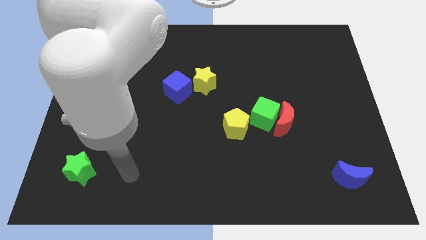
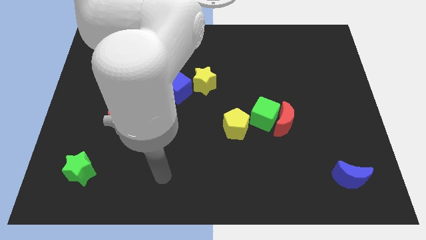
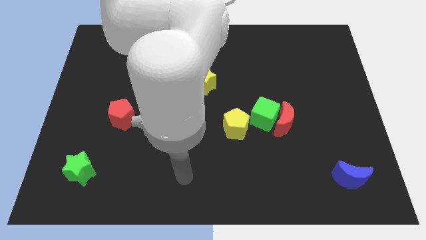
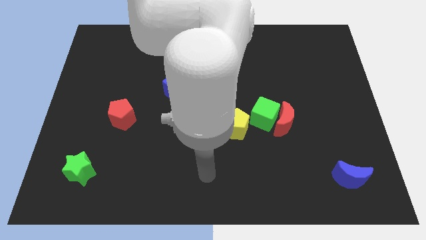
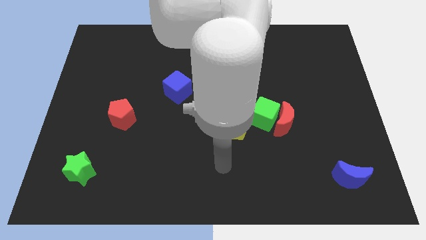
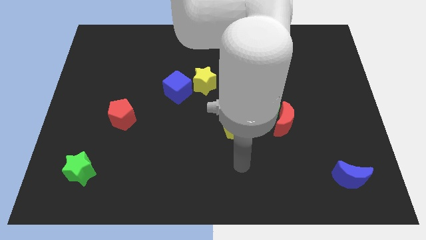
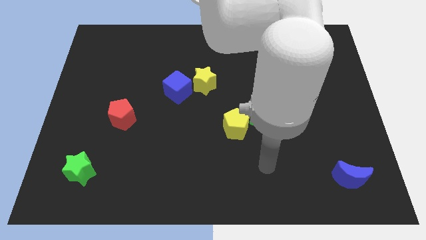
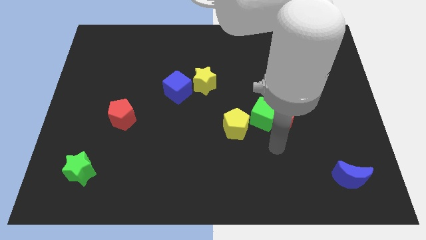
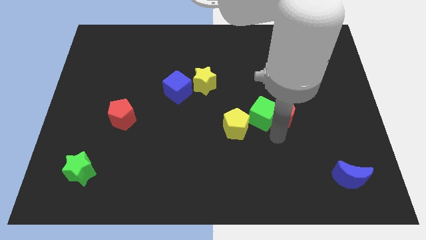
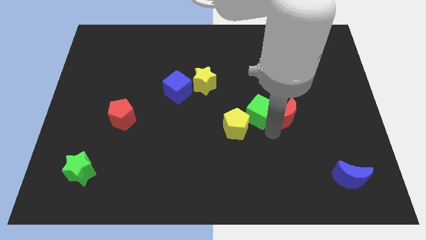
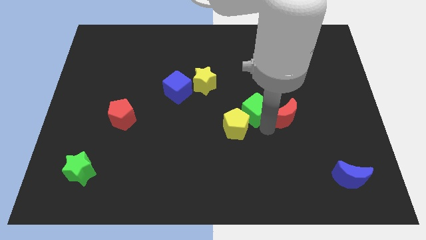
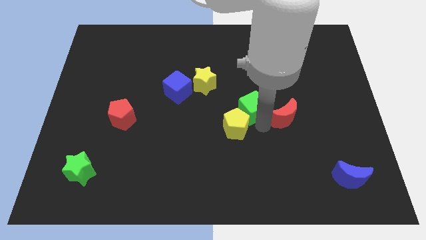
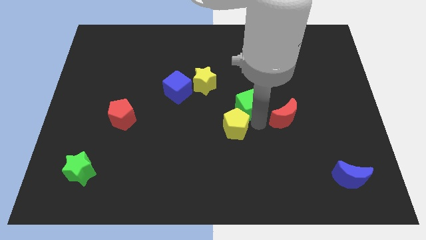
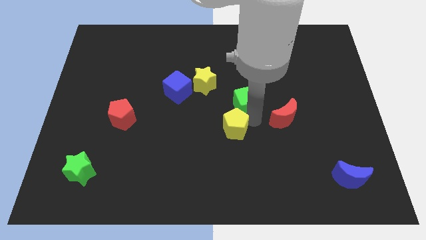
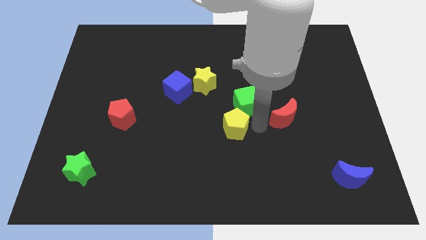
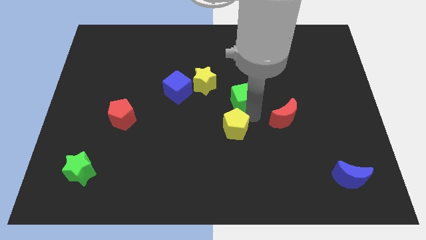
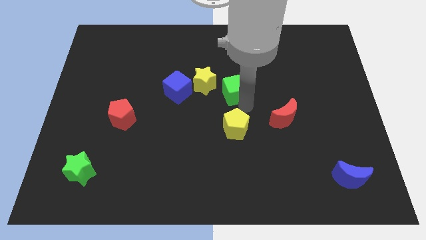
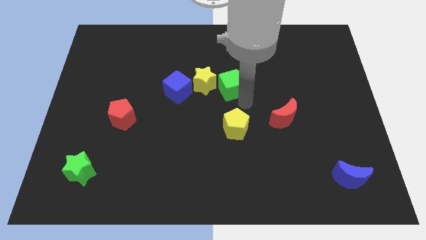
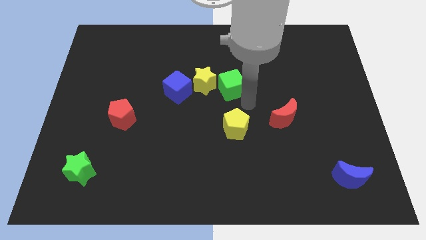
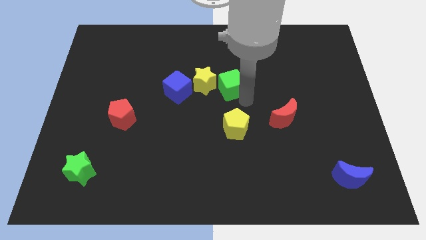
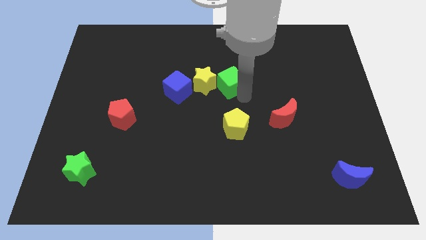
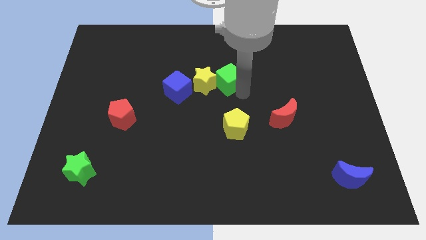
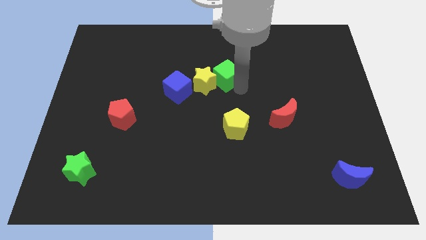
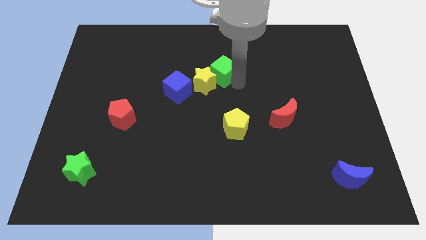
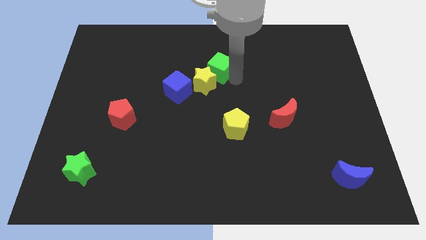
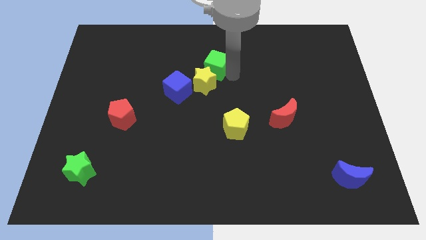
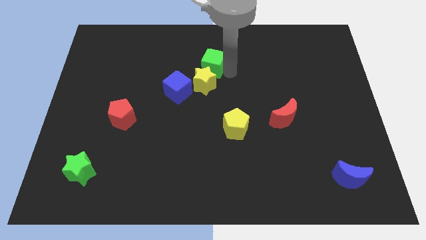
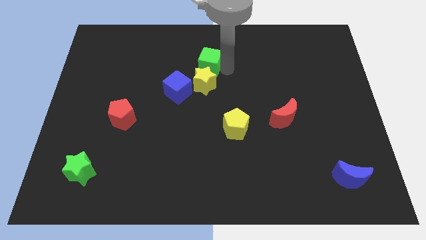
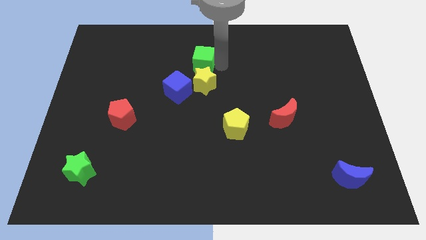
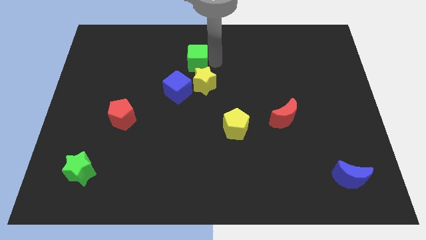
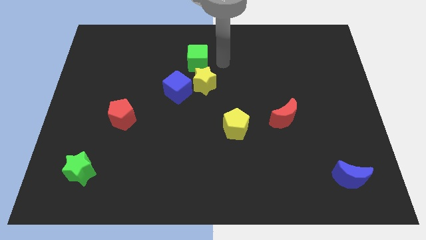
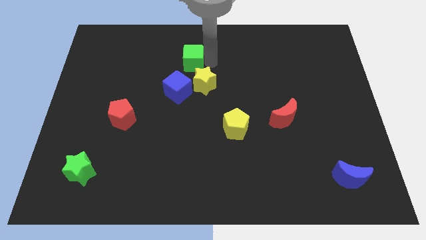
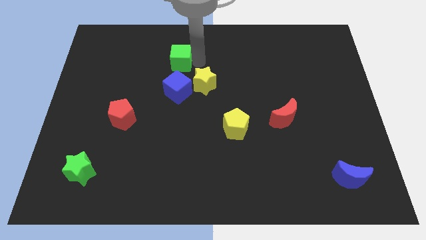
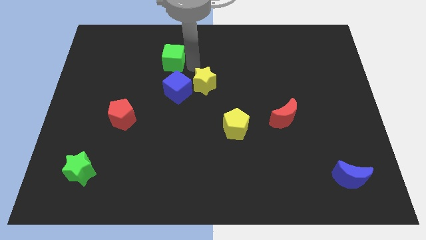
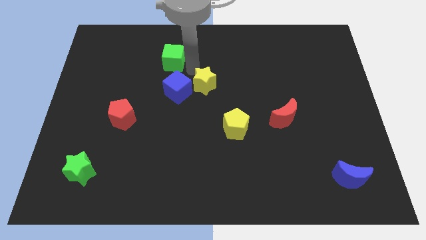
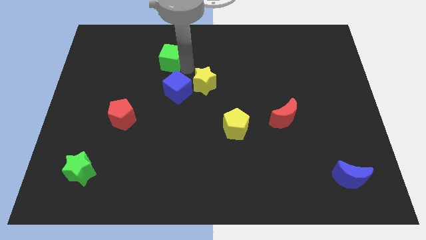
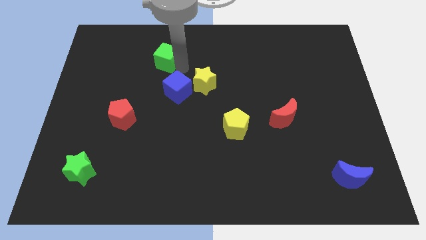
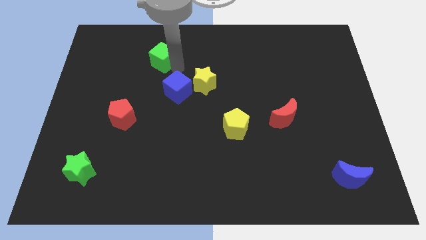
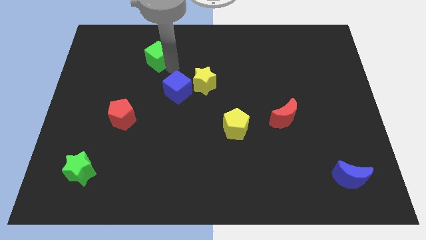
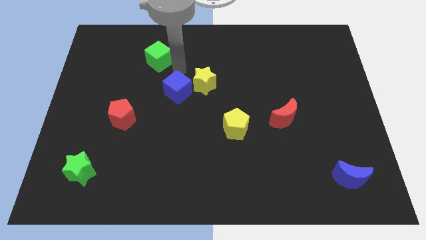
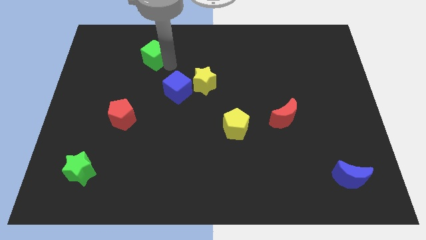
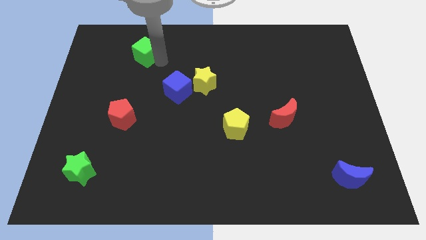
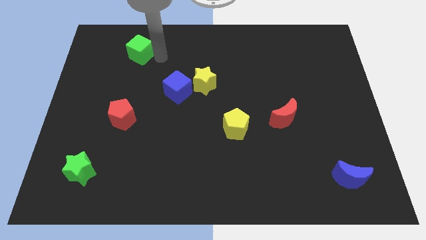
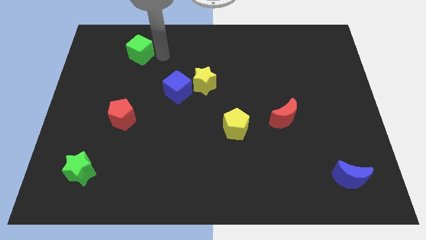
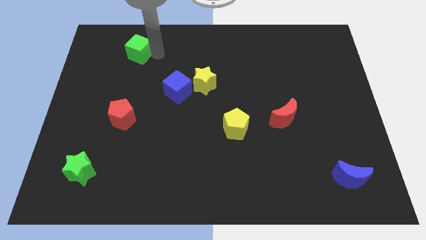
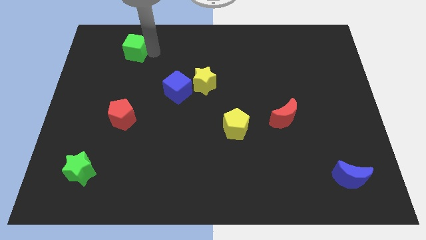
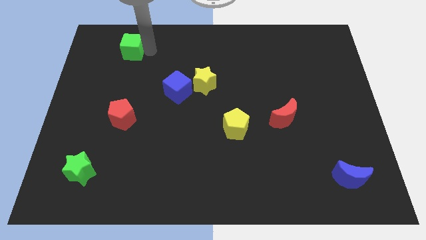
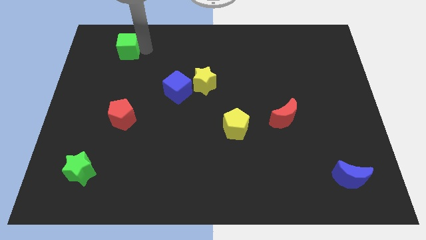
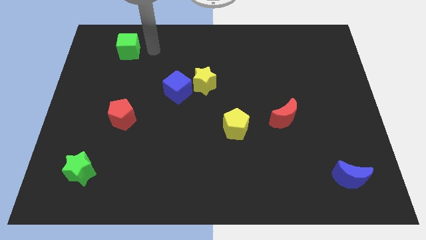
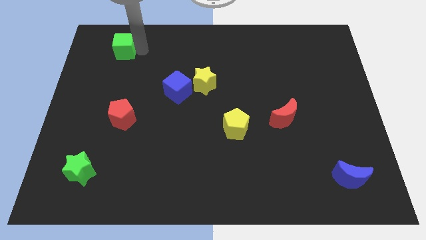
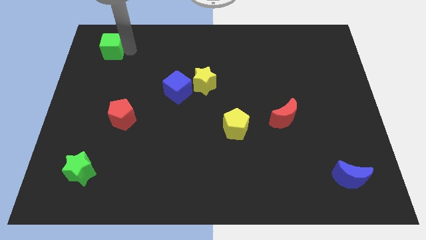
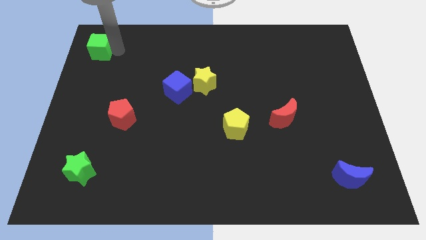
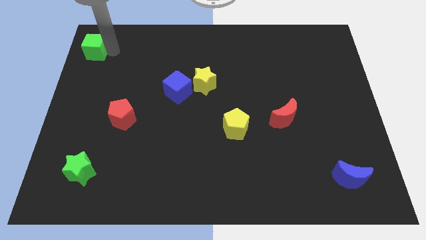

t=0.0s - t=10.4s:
slide the green cube to the top left of the board
